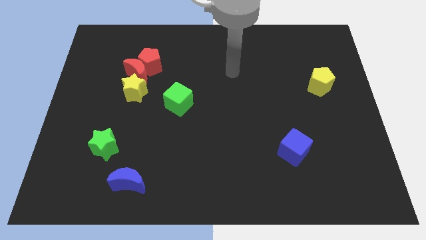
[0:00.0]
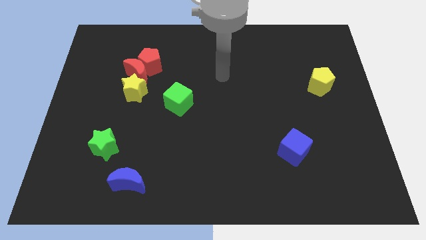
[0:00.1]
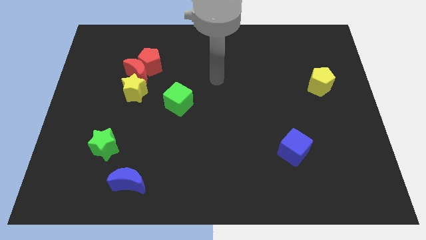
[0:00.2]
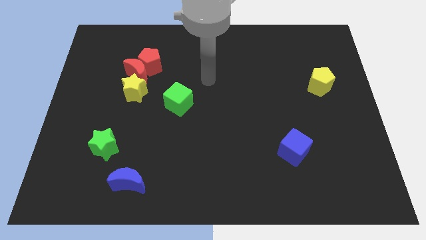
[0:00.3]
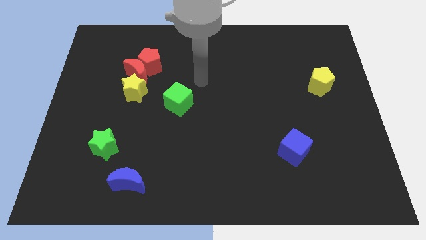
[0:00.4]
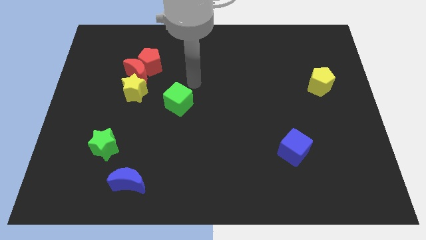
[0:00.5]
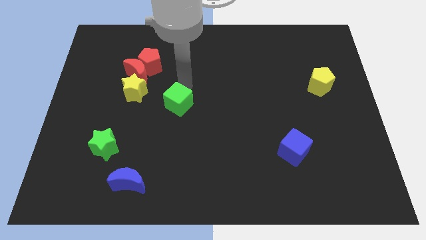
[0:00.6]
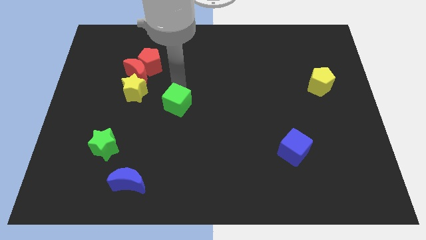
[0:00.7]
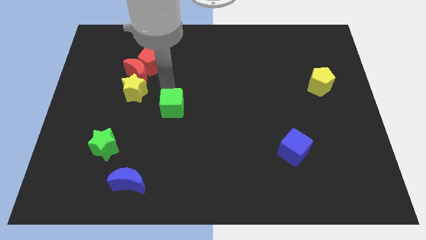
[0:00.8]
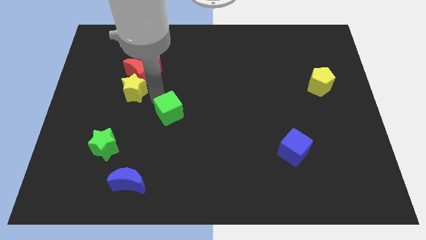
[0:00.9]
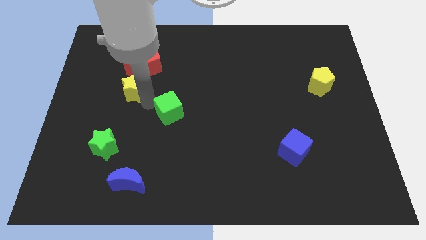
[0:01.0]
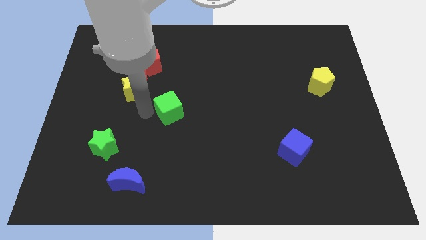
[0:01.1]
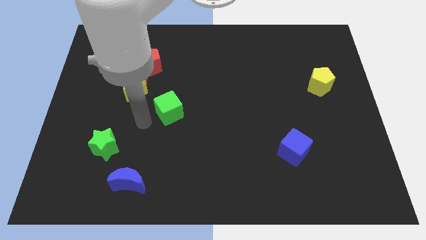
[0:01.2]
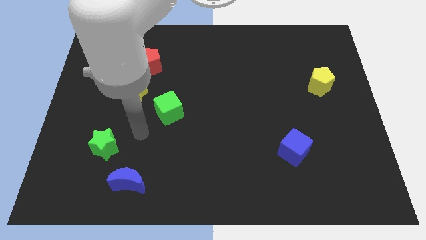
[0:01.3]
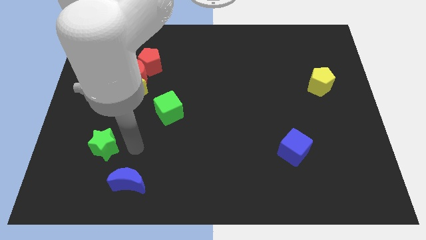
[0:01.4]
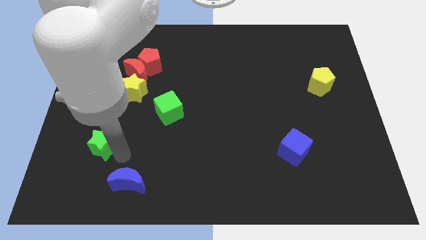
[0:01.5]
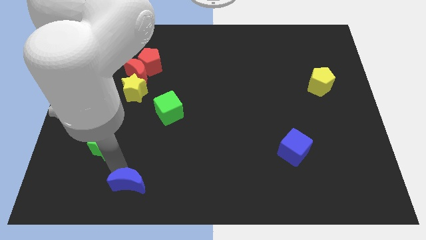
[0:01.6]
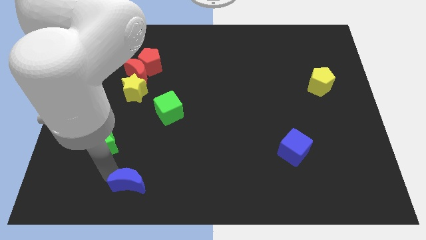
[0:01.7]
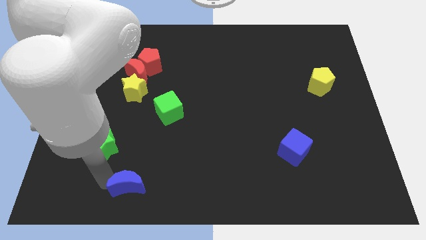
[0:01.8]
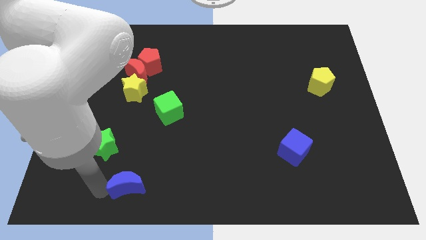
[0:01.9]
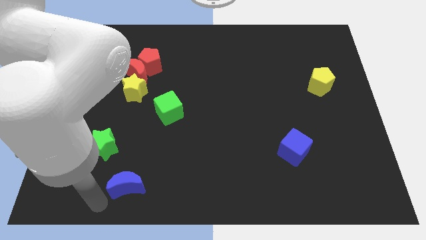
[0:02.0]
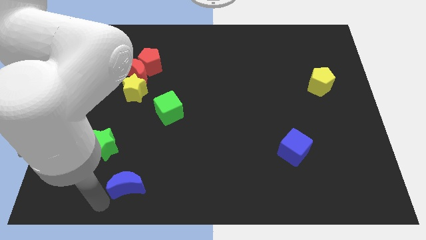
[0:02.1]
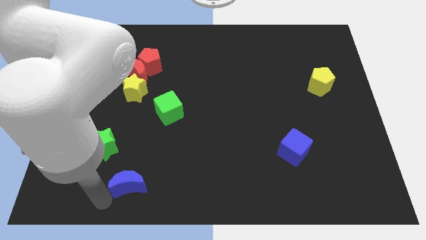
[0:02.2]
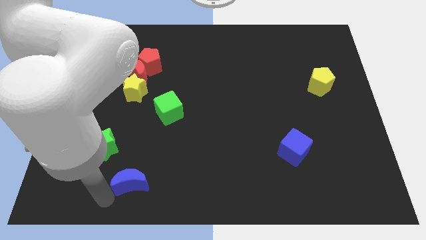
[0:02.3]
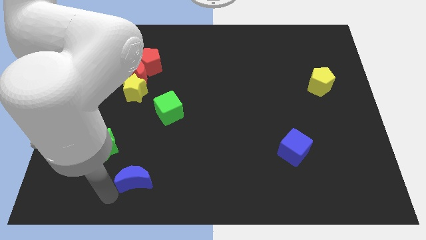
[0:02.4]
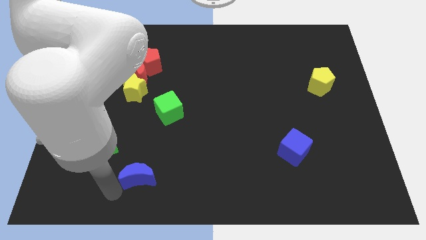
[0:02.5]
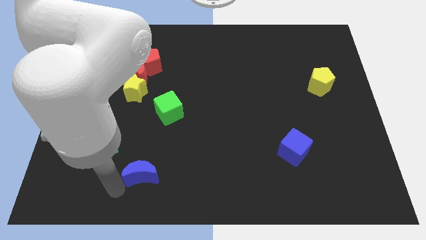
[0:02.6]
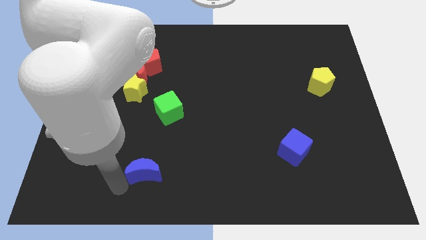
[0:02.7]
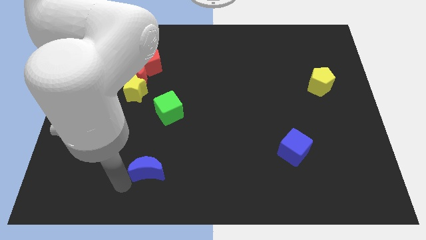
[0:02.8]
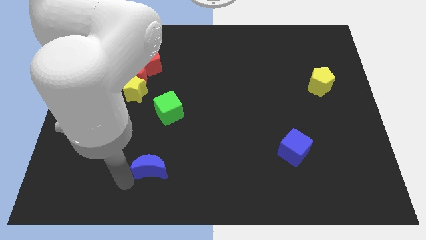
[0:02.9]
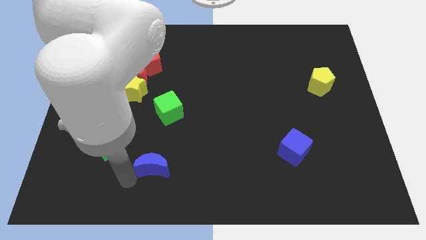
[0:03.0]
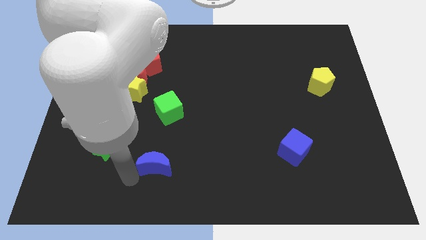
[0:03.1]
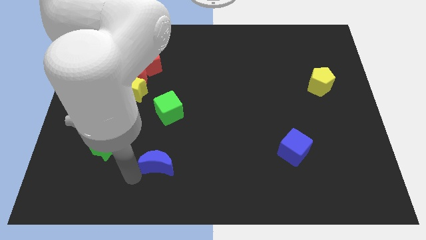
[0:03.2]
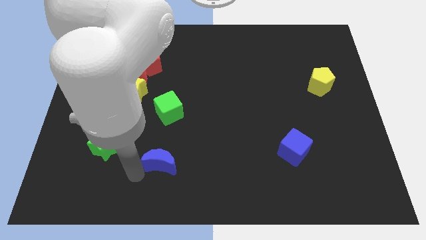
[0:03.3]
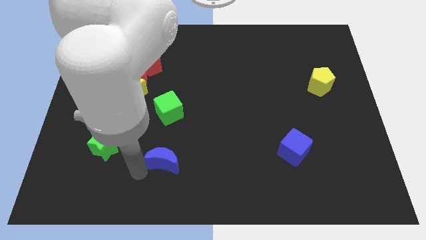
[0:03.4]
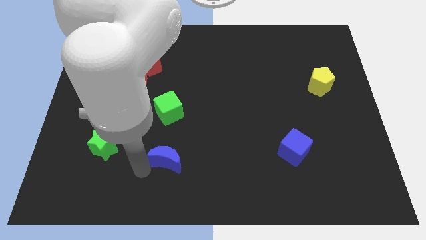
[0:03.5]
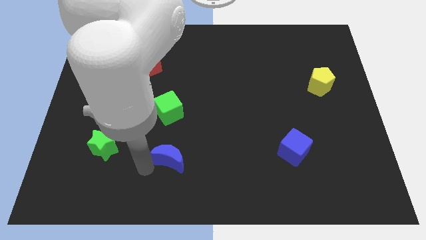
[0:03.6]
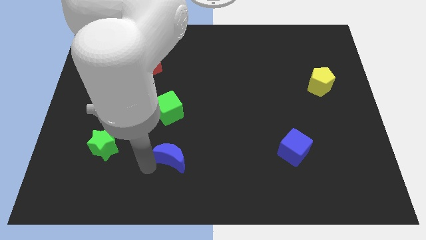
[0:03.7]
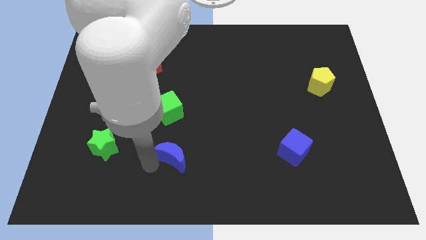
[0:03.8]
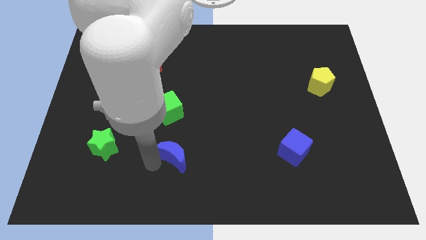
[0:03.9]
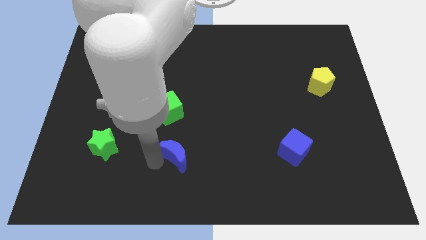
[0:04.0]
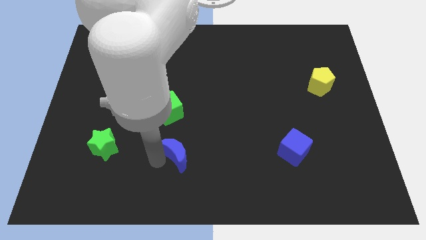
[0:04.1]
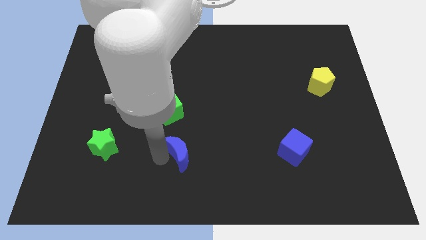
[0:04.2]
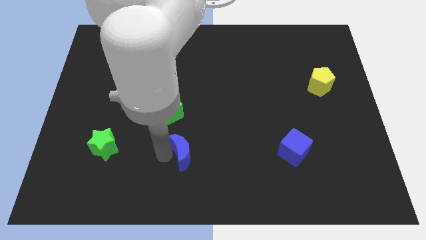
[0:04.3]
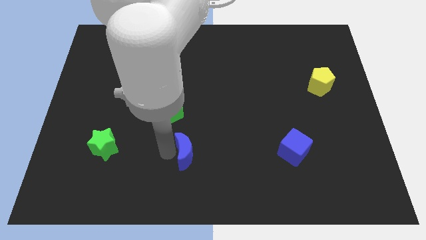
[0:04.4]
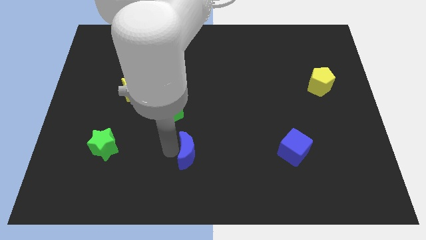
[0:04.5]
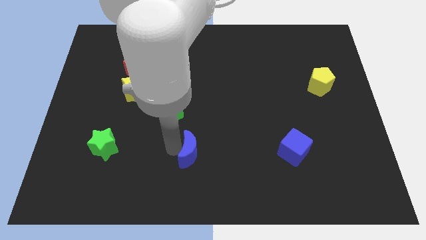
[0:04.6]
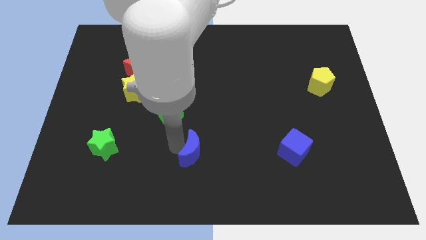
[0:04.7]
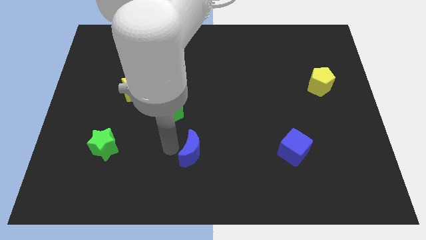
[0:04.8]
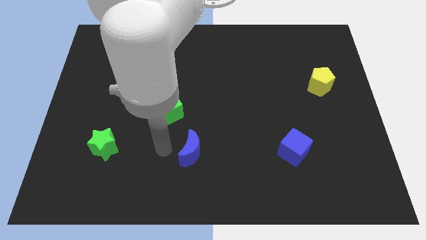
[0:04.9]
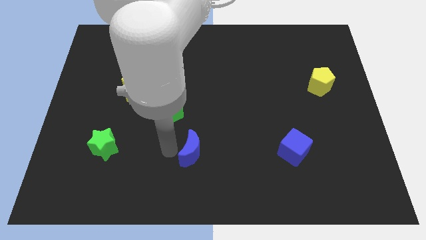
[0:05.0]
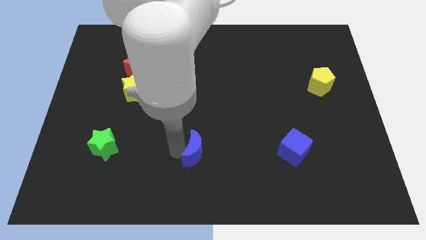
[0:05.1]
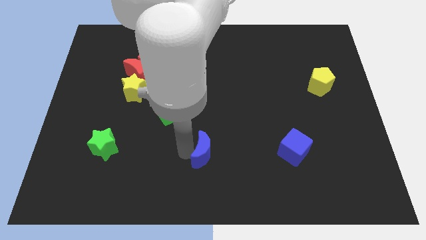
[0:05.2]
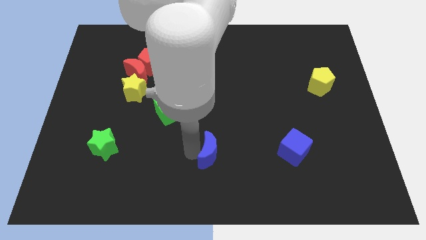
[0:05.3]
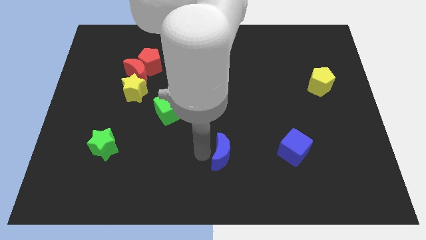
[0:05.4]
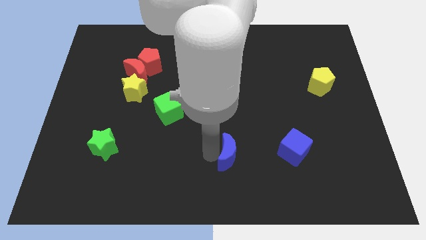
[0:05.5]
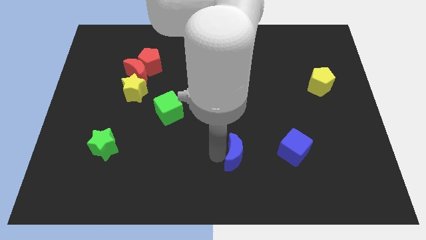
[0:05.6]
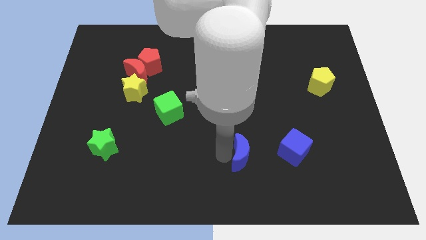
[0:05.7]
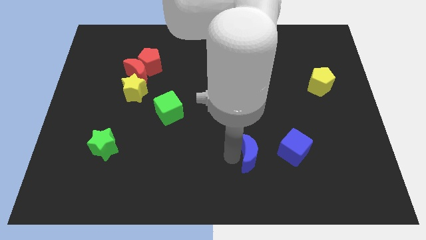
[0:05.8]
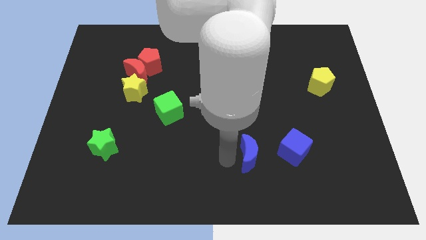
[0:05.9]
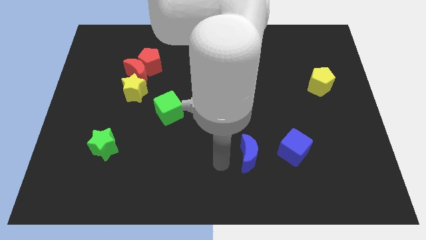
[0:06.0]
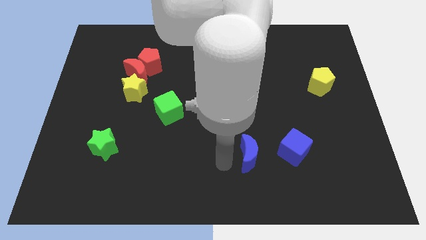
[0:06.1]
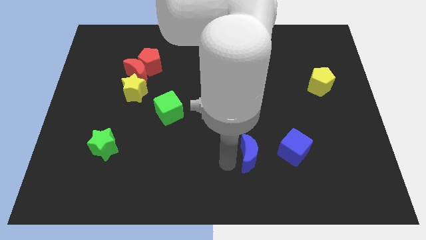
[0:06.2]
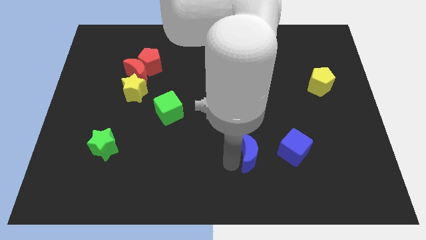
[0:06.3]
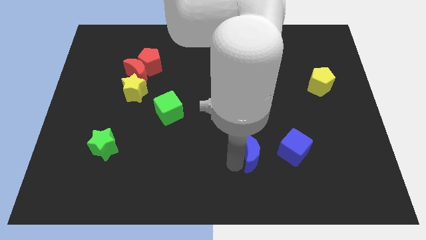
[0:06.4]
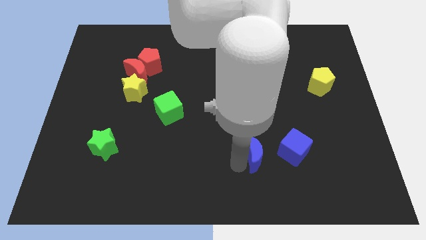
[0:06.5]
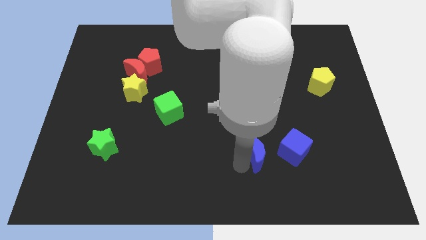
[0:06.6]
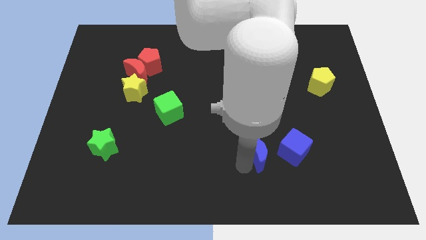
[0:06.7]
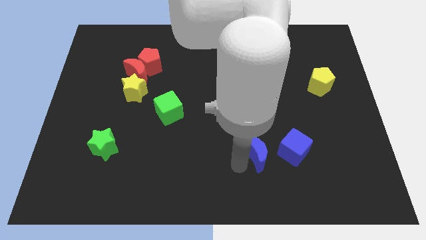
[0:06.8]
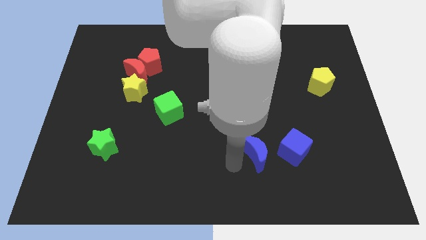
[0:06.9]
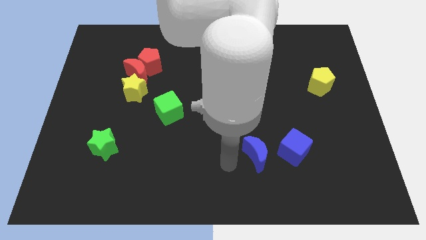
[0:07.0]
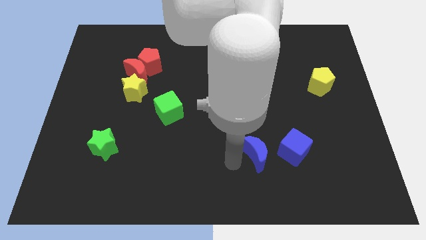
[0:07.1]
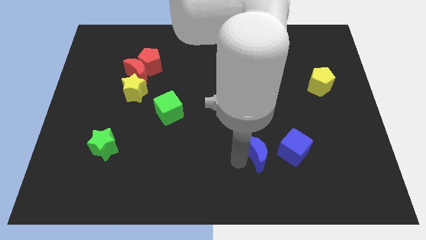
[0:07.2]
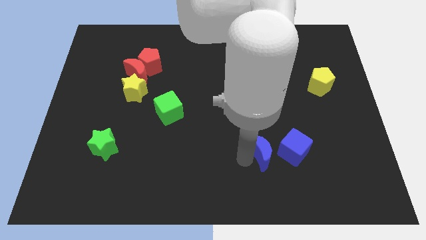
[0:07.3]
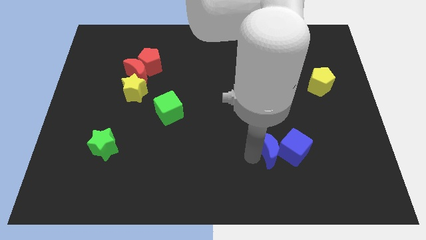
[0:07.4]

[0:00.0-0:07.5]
move the blue moon to the blue cube
